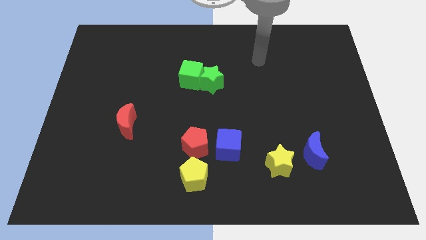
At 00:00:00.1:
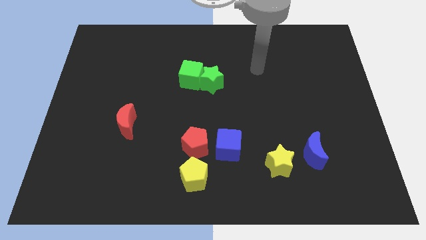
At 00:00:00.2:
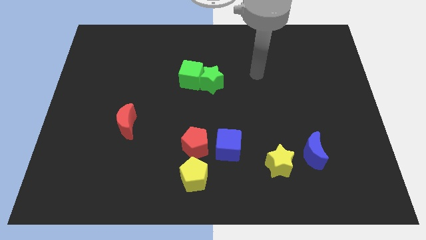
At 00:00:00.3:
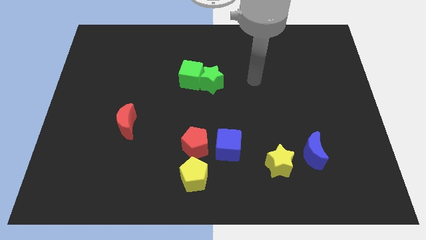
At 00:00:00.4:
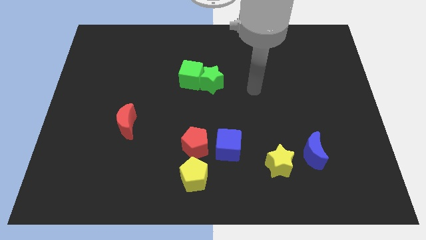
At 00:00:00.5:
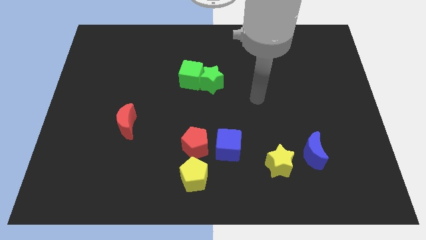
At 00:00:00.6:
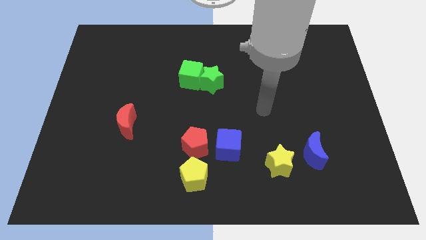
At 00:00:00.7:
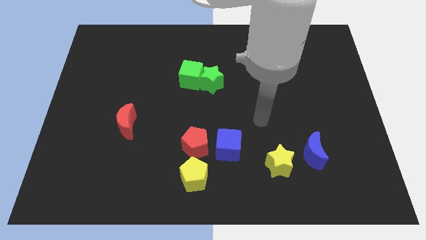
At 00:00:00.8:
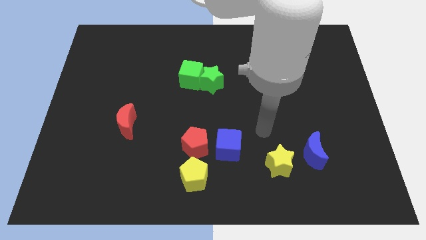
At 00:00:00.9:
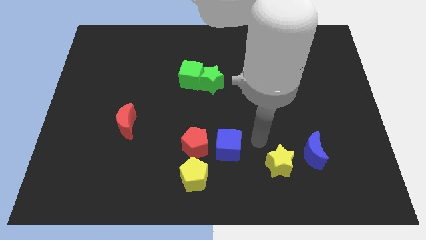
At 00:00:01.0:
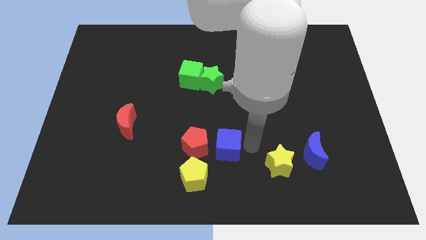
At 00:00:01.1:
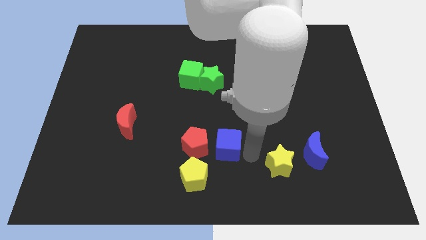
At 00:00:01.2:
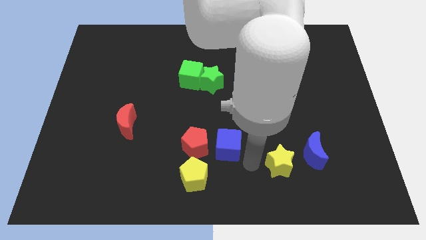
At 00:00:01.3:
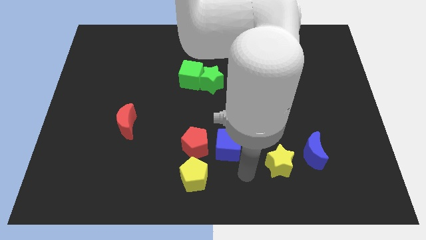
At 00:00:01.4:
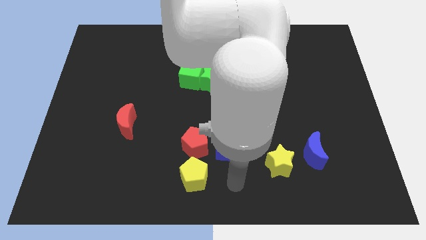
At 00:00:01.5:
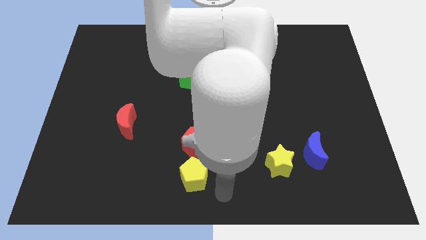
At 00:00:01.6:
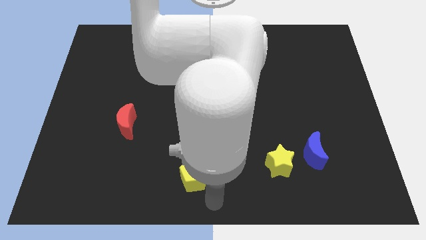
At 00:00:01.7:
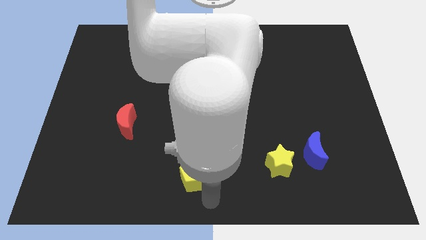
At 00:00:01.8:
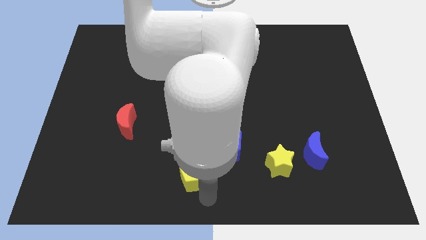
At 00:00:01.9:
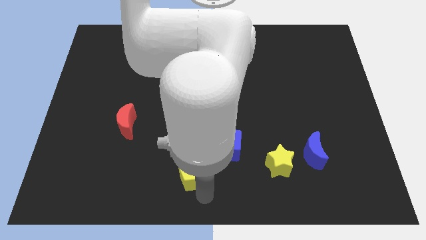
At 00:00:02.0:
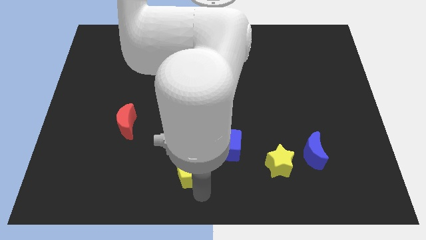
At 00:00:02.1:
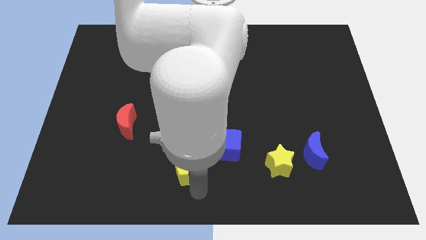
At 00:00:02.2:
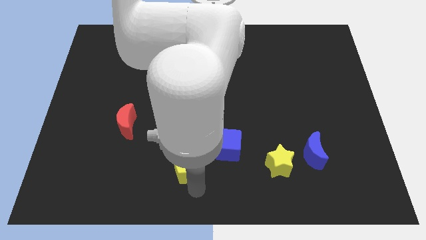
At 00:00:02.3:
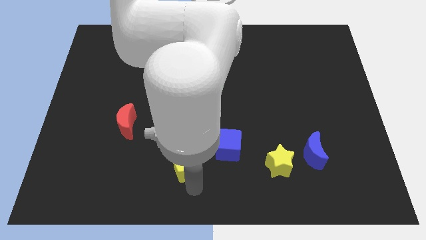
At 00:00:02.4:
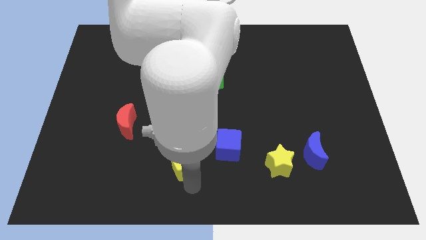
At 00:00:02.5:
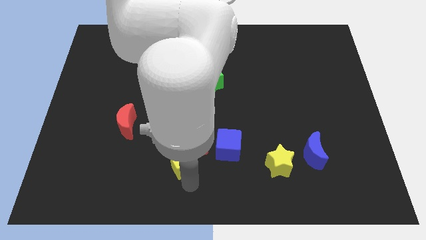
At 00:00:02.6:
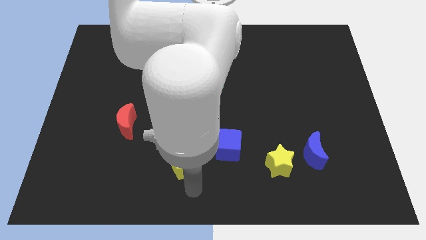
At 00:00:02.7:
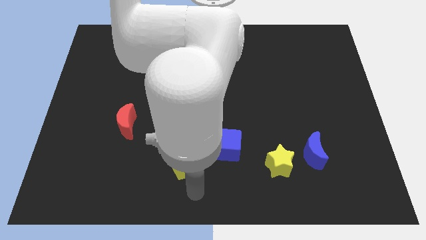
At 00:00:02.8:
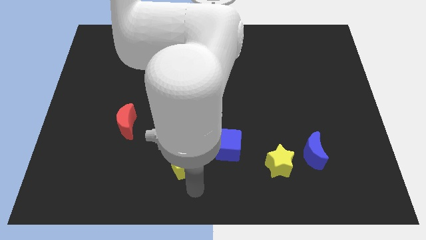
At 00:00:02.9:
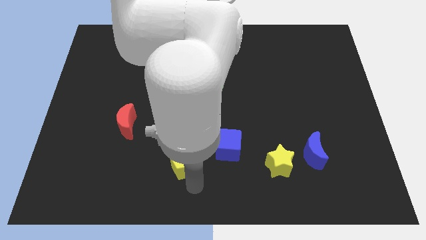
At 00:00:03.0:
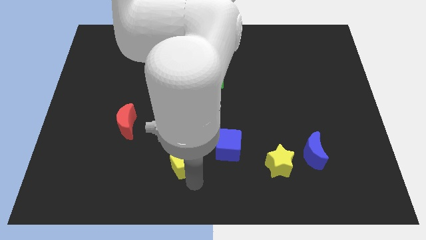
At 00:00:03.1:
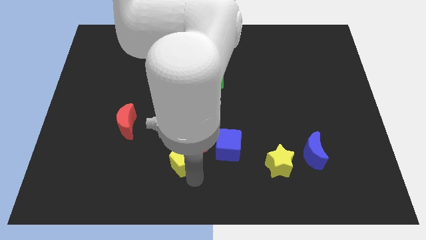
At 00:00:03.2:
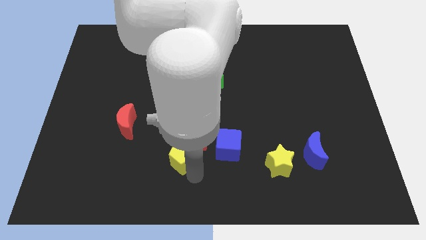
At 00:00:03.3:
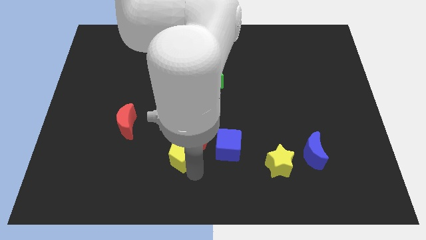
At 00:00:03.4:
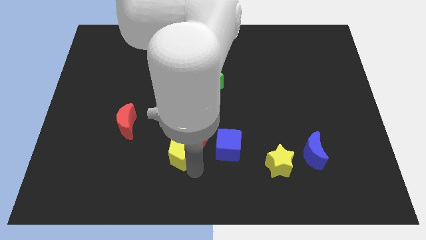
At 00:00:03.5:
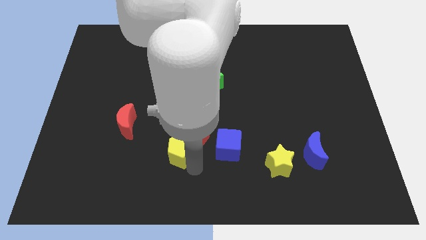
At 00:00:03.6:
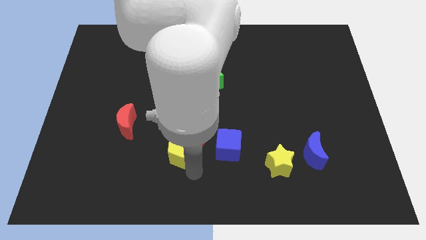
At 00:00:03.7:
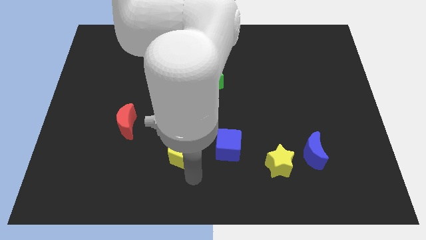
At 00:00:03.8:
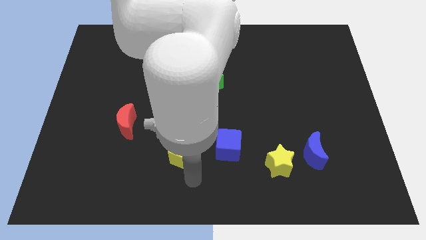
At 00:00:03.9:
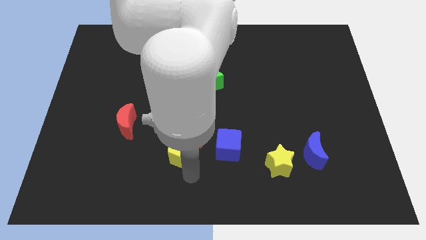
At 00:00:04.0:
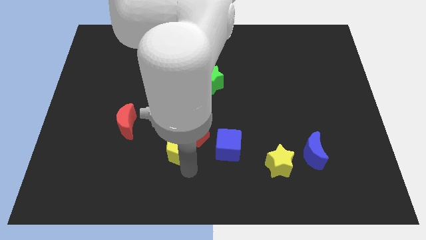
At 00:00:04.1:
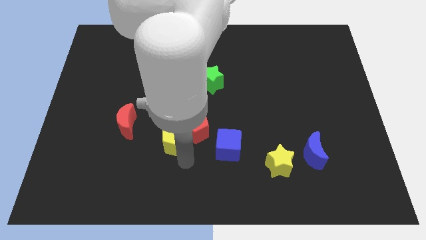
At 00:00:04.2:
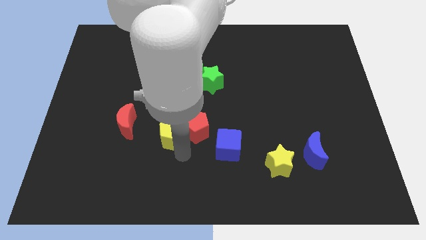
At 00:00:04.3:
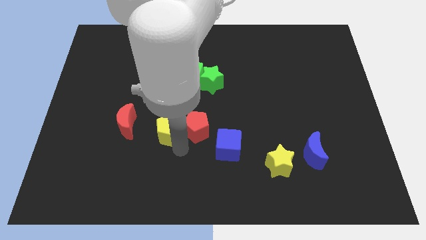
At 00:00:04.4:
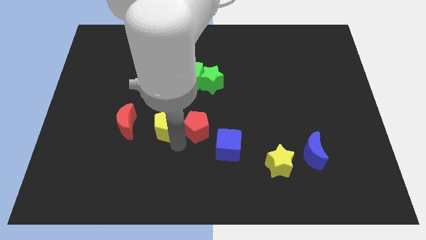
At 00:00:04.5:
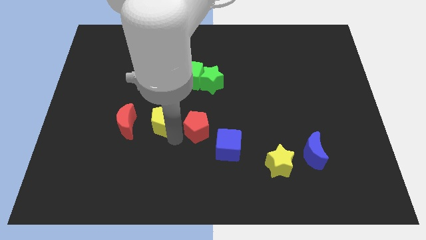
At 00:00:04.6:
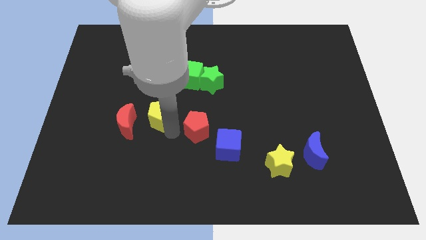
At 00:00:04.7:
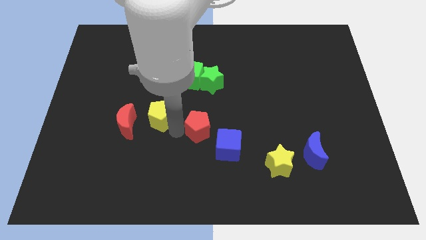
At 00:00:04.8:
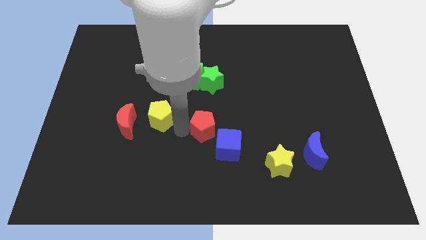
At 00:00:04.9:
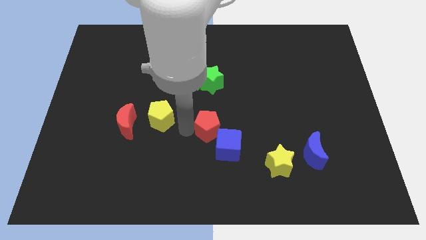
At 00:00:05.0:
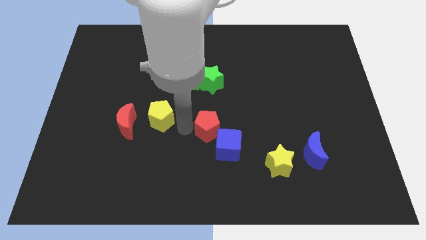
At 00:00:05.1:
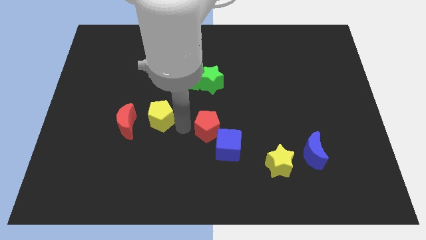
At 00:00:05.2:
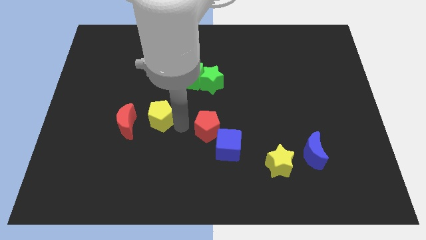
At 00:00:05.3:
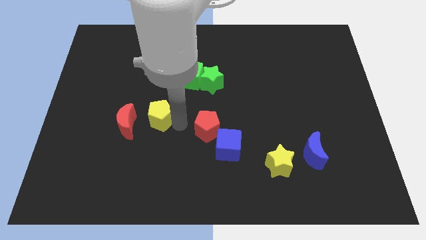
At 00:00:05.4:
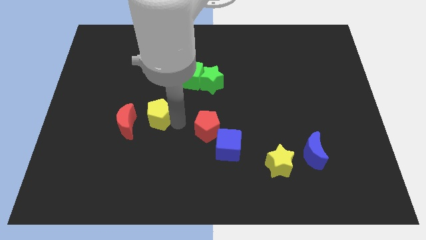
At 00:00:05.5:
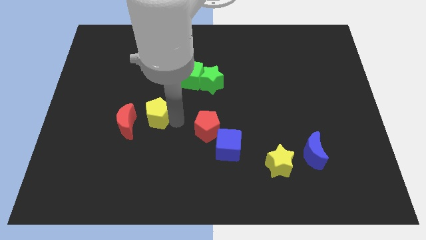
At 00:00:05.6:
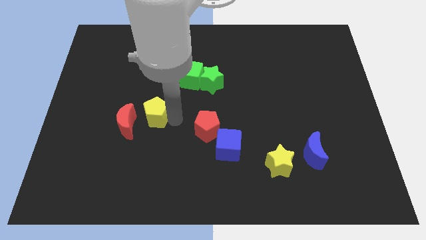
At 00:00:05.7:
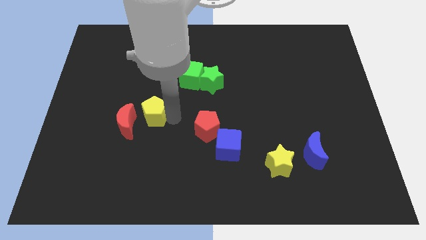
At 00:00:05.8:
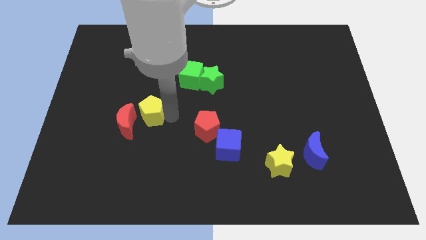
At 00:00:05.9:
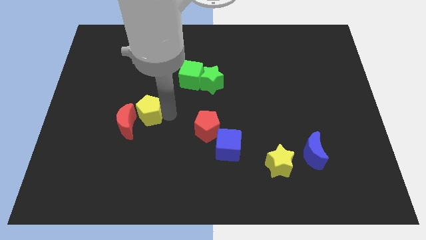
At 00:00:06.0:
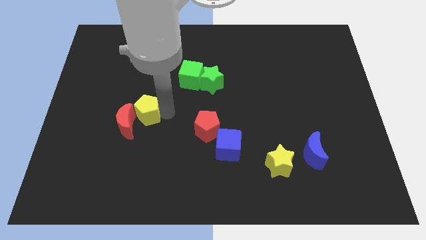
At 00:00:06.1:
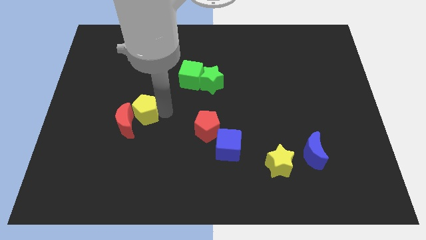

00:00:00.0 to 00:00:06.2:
slide the yellow pentagon up and to the left

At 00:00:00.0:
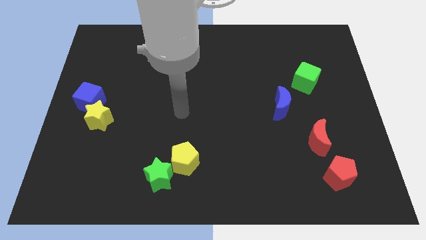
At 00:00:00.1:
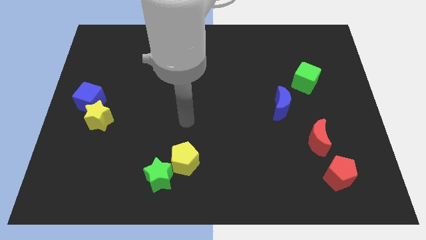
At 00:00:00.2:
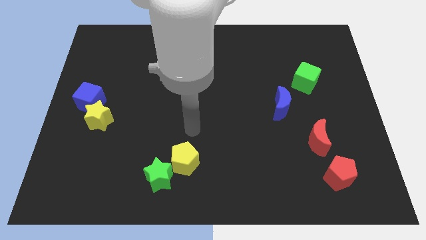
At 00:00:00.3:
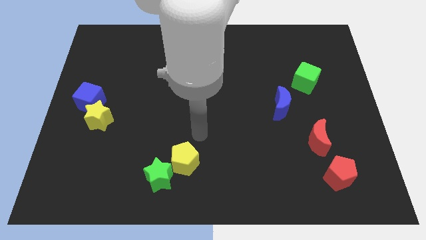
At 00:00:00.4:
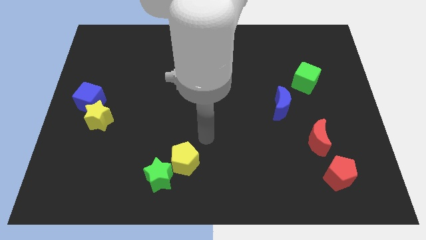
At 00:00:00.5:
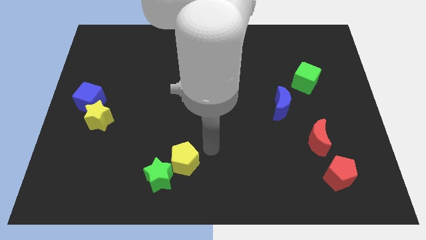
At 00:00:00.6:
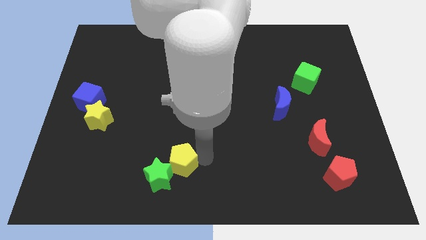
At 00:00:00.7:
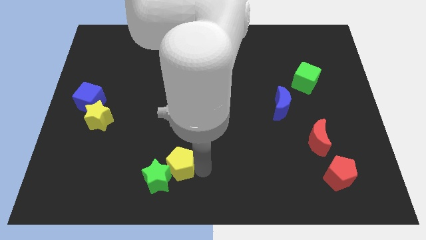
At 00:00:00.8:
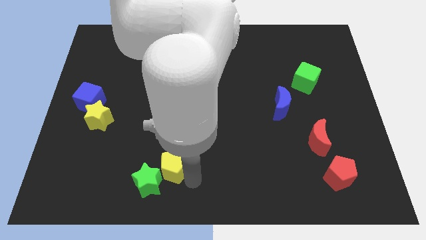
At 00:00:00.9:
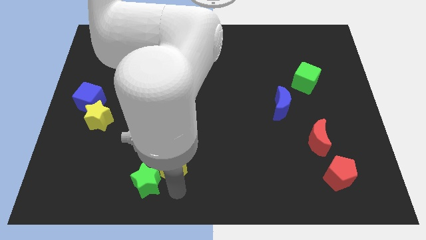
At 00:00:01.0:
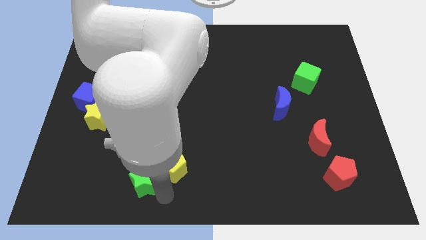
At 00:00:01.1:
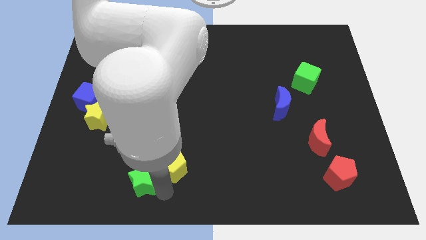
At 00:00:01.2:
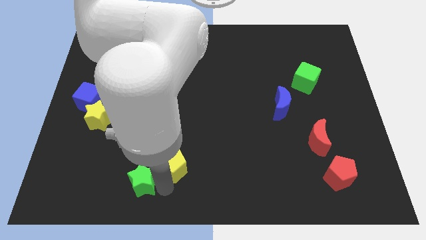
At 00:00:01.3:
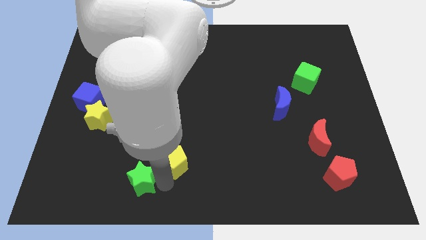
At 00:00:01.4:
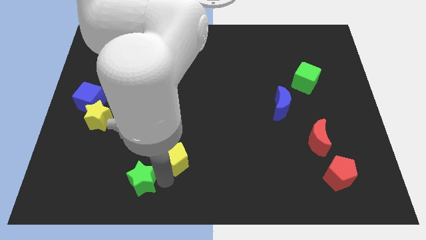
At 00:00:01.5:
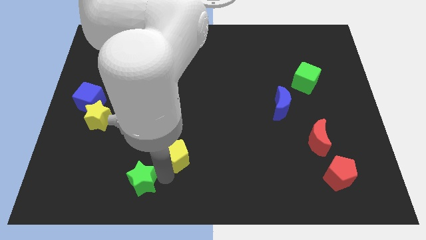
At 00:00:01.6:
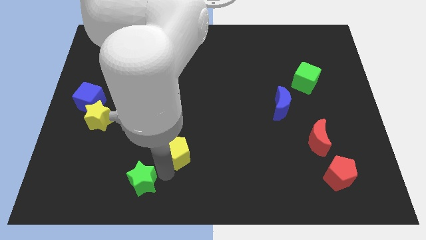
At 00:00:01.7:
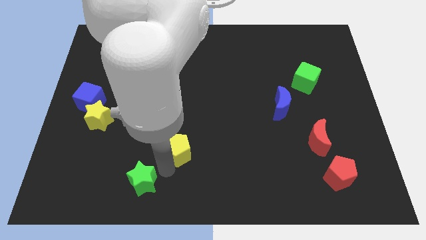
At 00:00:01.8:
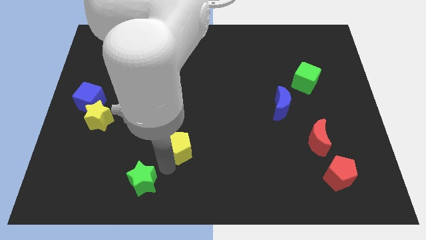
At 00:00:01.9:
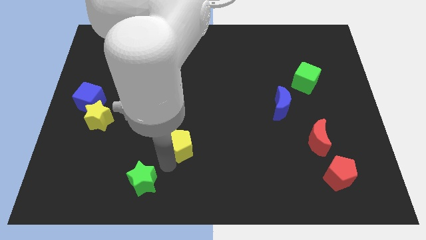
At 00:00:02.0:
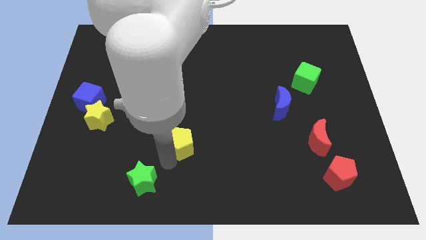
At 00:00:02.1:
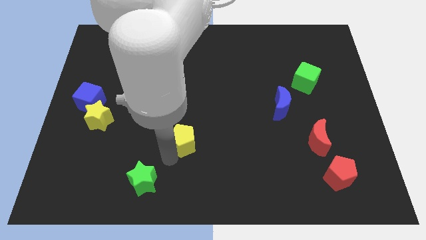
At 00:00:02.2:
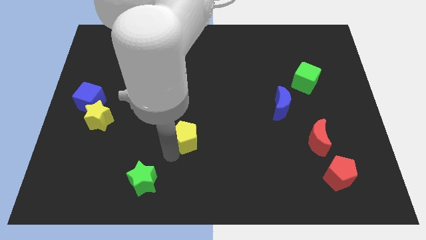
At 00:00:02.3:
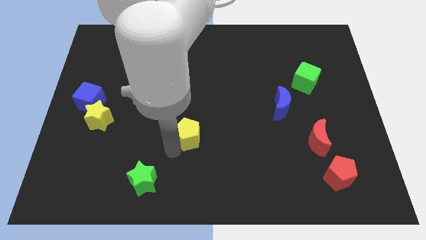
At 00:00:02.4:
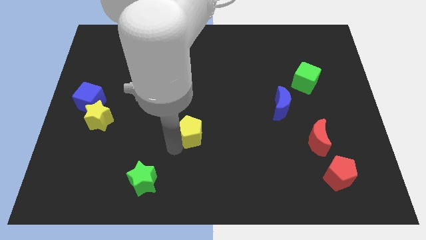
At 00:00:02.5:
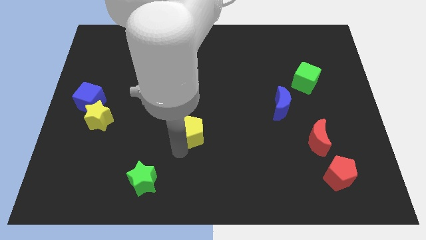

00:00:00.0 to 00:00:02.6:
push the yellow pentagon up somewhat
